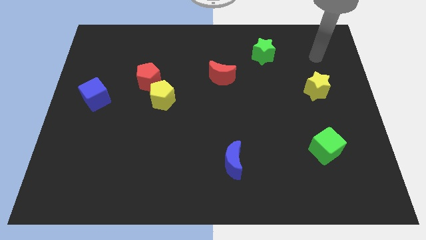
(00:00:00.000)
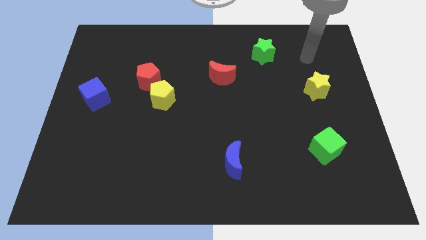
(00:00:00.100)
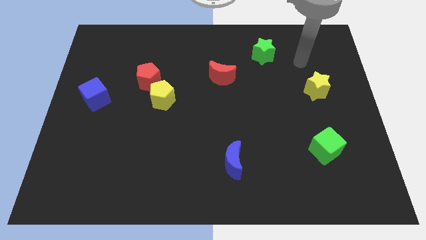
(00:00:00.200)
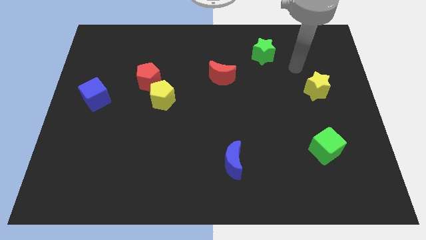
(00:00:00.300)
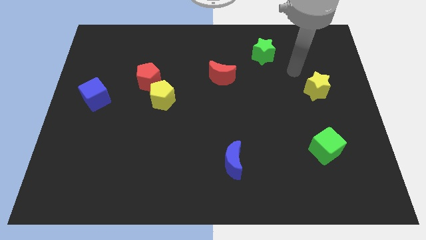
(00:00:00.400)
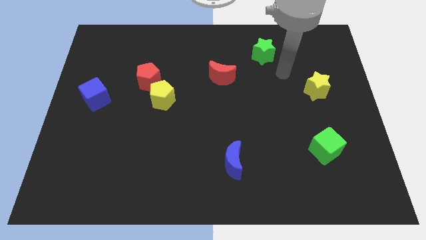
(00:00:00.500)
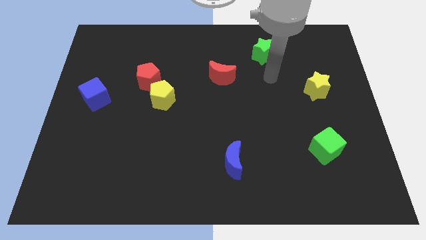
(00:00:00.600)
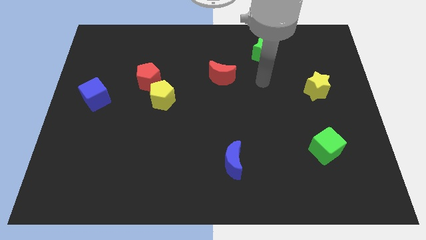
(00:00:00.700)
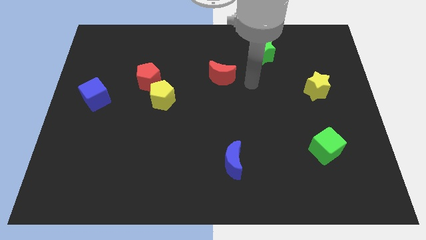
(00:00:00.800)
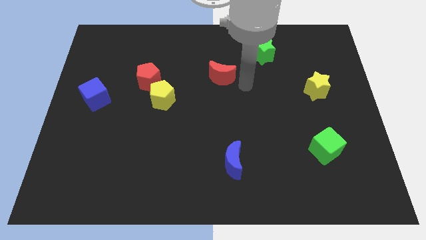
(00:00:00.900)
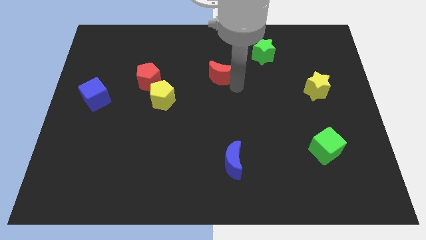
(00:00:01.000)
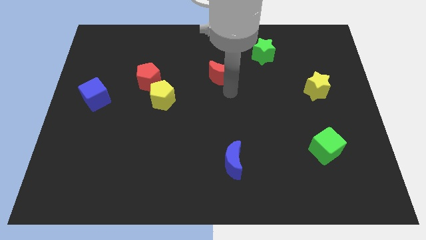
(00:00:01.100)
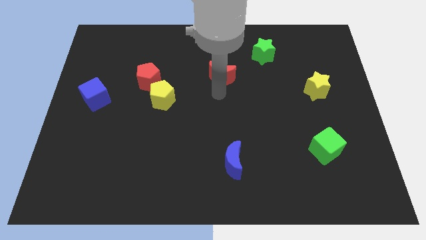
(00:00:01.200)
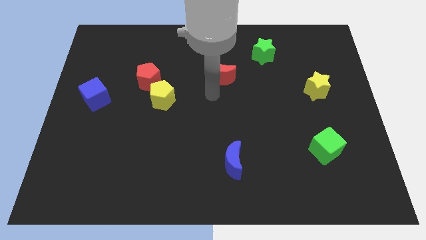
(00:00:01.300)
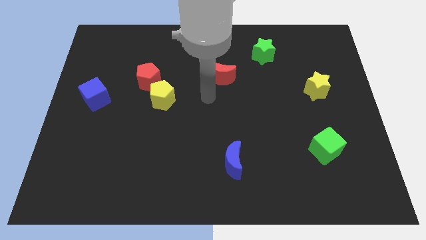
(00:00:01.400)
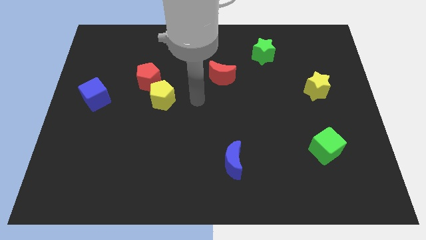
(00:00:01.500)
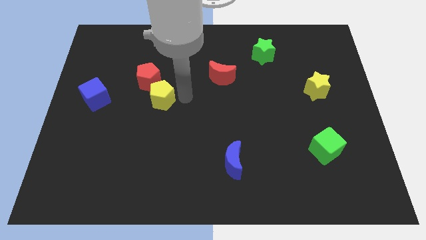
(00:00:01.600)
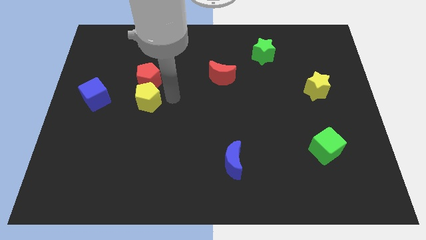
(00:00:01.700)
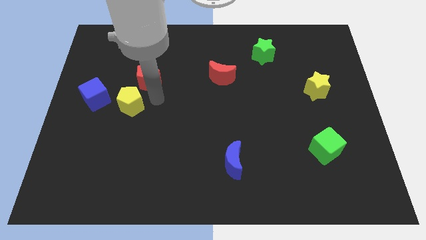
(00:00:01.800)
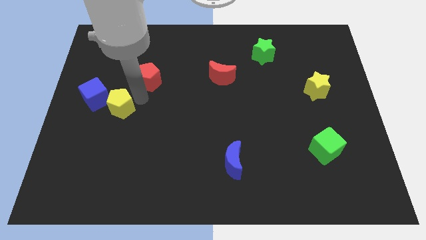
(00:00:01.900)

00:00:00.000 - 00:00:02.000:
separate the red pentagon from the yellow pentagon

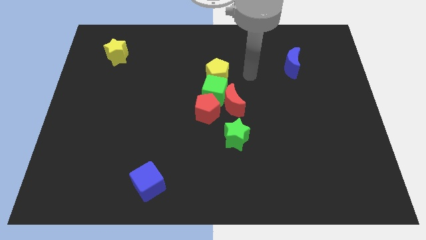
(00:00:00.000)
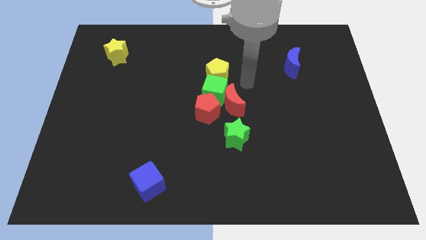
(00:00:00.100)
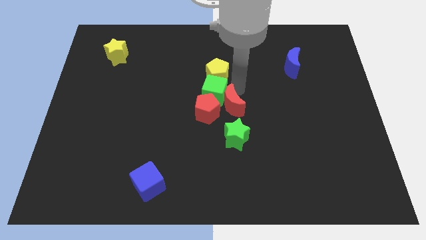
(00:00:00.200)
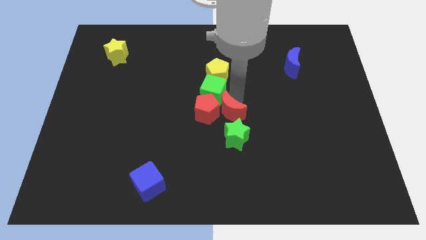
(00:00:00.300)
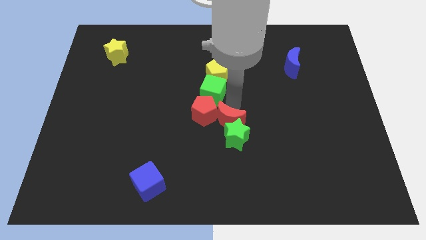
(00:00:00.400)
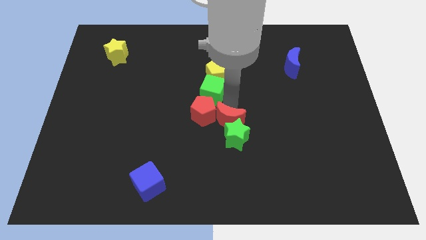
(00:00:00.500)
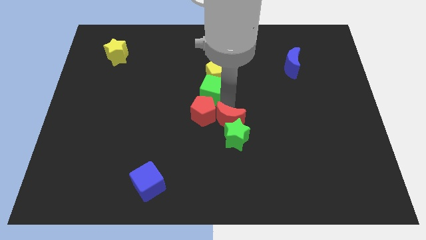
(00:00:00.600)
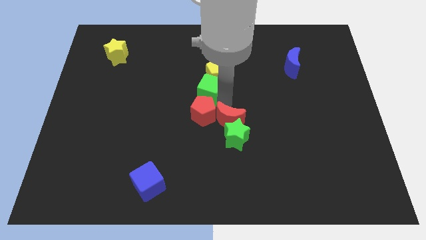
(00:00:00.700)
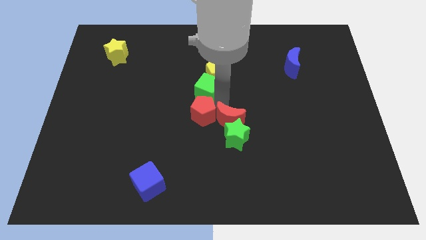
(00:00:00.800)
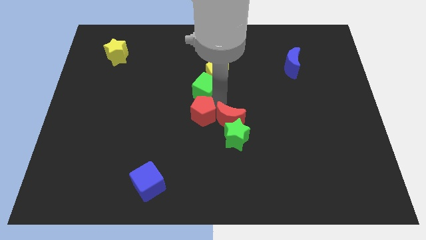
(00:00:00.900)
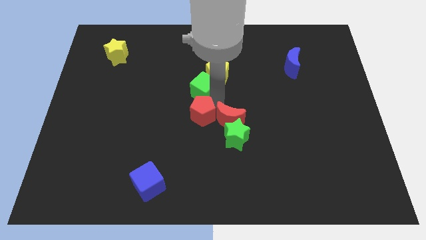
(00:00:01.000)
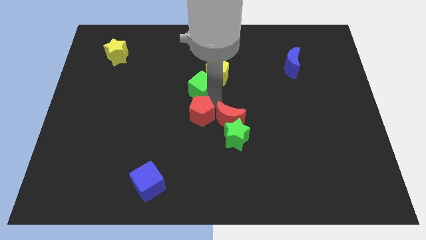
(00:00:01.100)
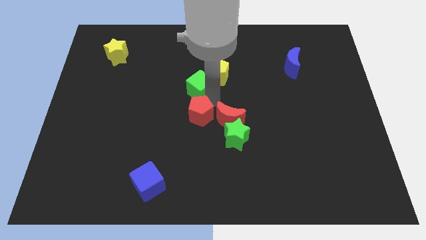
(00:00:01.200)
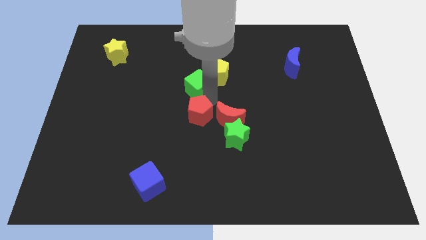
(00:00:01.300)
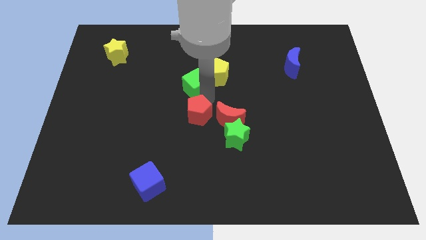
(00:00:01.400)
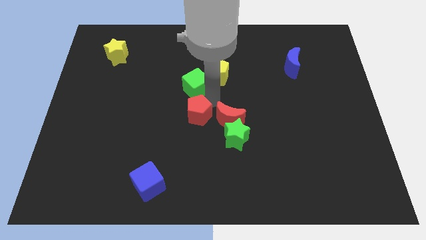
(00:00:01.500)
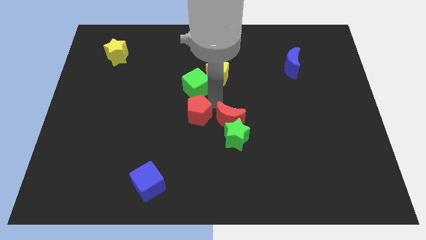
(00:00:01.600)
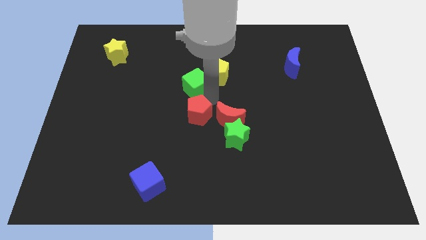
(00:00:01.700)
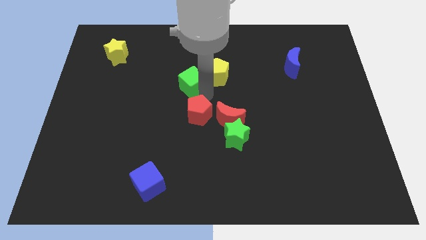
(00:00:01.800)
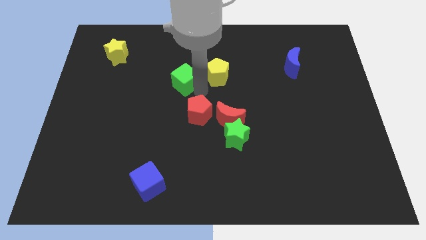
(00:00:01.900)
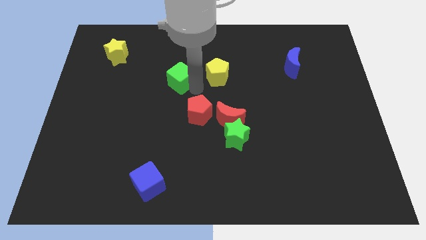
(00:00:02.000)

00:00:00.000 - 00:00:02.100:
move the green cube away from the red moon, red pentagon, and yellow pentagon

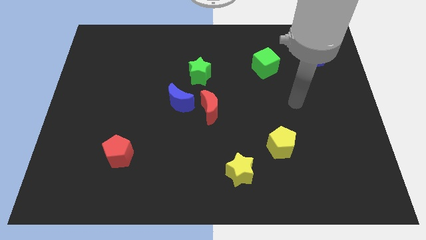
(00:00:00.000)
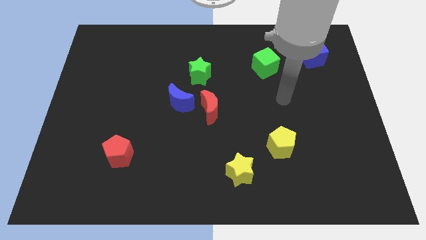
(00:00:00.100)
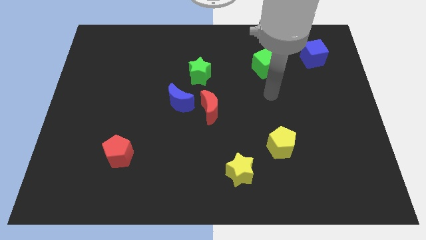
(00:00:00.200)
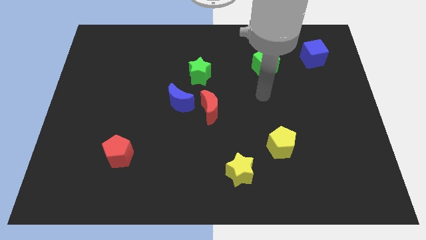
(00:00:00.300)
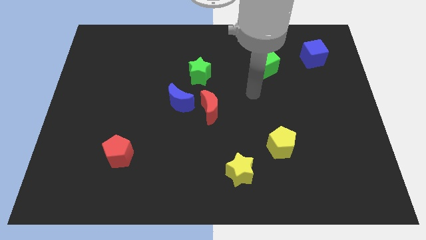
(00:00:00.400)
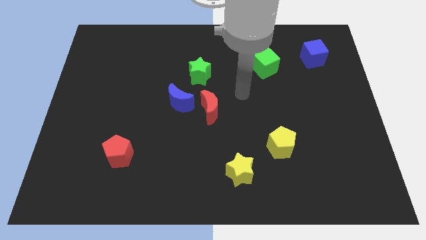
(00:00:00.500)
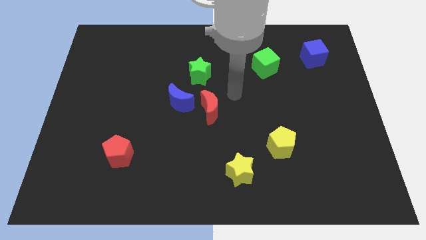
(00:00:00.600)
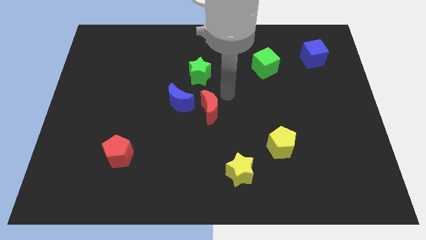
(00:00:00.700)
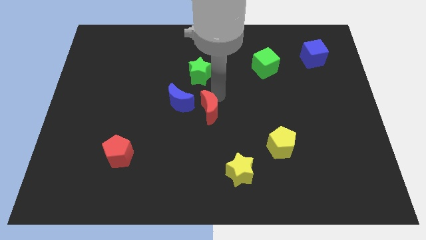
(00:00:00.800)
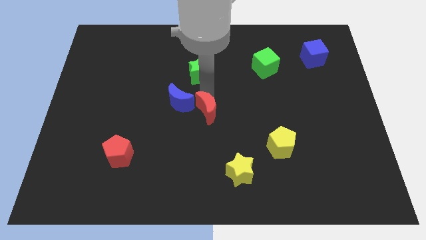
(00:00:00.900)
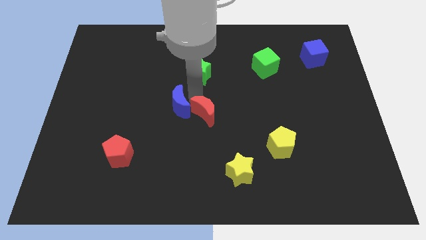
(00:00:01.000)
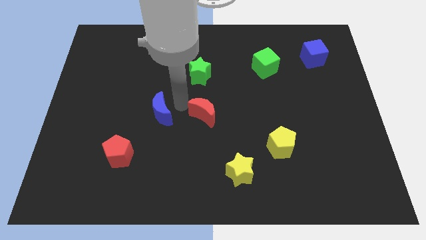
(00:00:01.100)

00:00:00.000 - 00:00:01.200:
separate the red moon from the blue moon

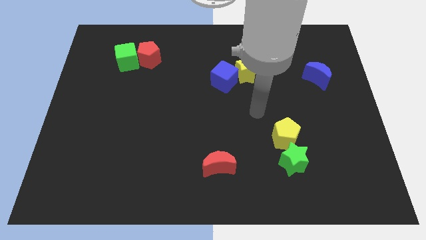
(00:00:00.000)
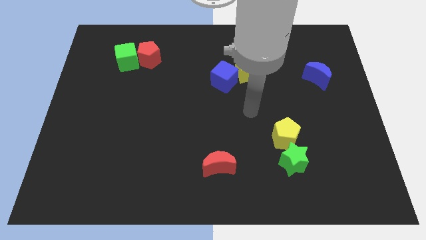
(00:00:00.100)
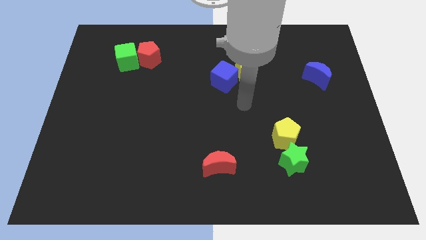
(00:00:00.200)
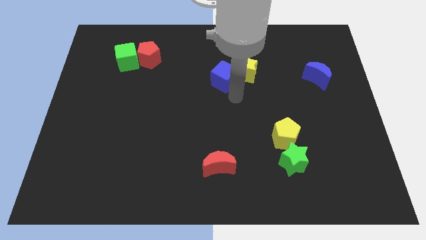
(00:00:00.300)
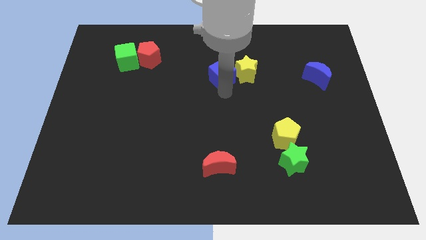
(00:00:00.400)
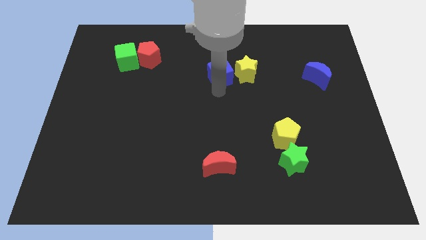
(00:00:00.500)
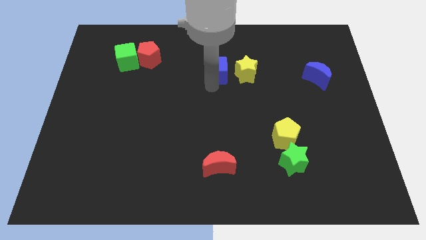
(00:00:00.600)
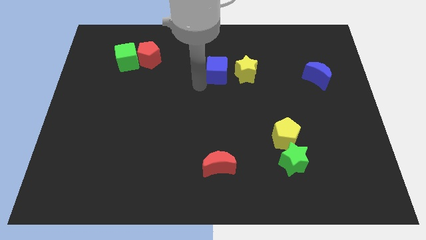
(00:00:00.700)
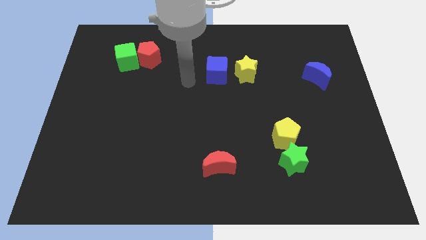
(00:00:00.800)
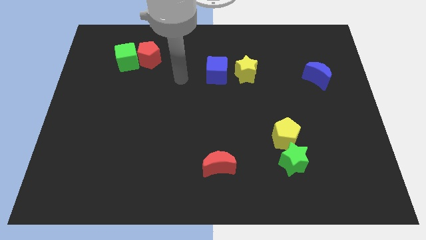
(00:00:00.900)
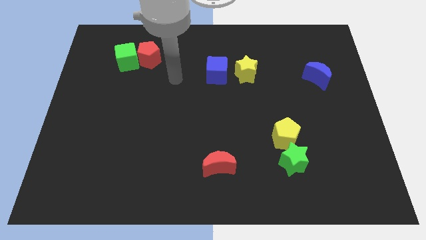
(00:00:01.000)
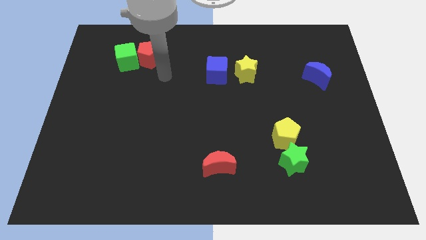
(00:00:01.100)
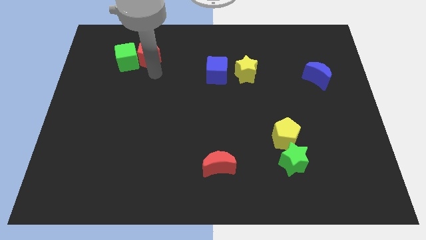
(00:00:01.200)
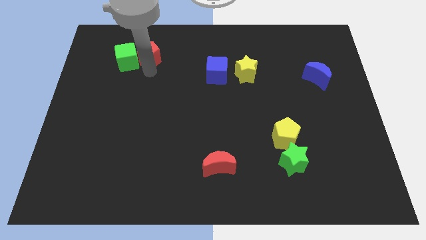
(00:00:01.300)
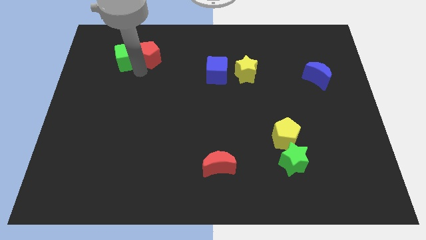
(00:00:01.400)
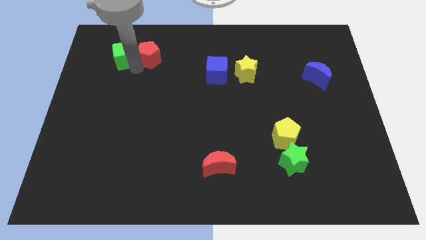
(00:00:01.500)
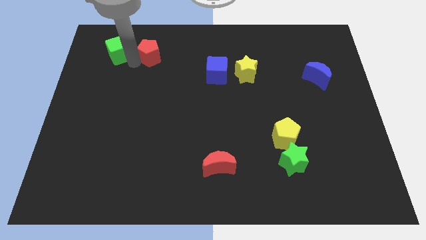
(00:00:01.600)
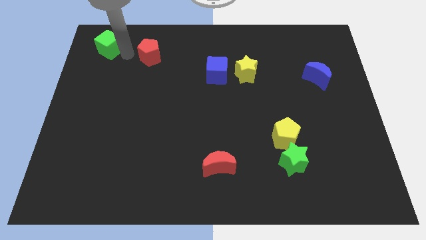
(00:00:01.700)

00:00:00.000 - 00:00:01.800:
pull the red pentagon apart from the green cube

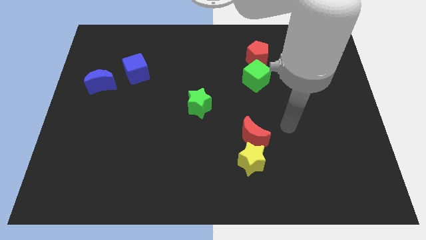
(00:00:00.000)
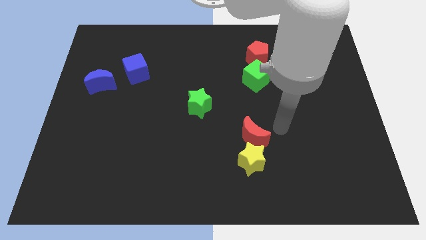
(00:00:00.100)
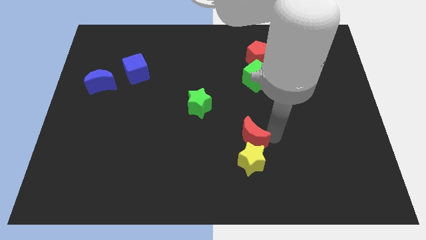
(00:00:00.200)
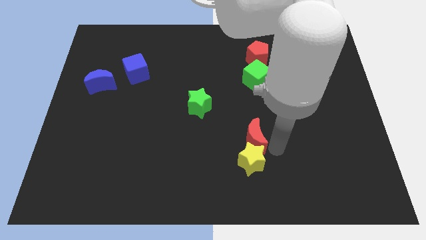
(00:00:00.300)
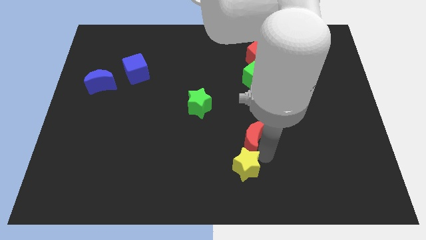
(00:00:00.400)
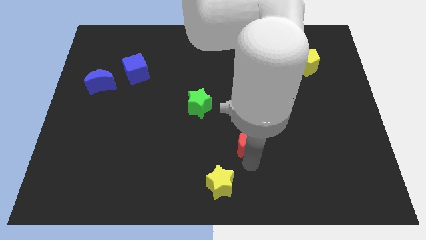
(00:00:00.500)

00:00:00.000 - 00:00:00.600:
separate the red moon from the yellow star

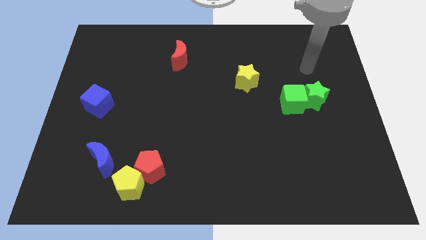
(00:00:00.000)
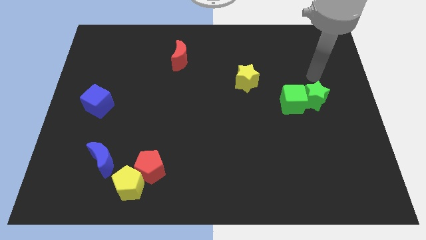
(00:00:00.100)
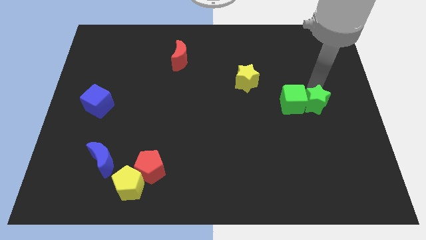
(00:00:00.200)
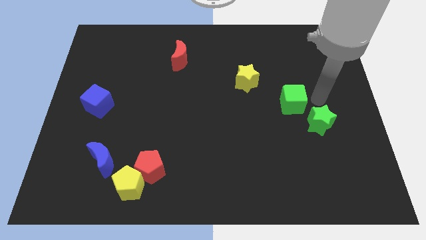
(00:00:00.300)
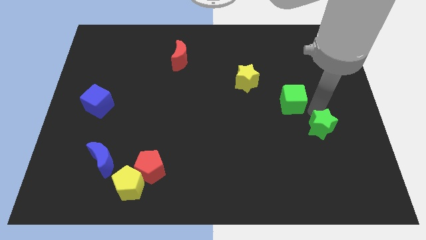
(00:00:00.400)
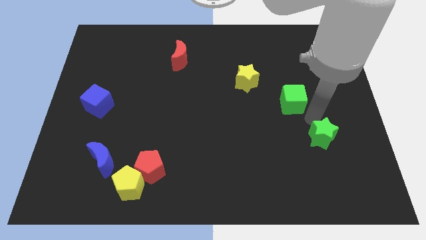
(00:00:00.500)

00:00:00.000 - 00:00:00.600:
pull the green cube apart from the green star

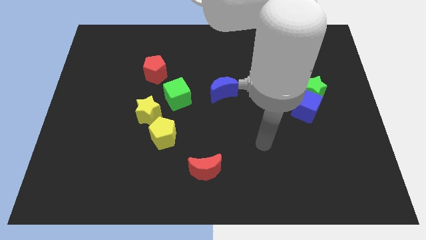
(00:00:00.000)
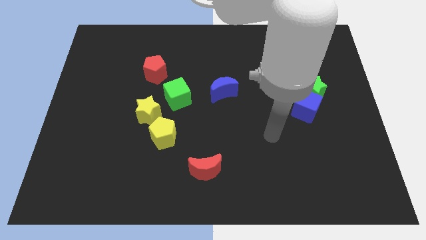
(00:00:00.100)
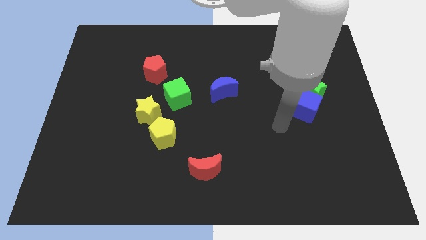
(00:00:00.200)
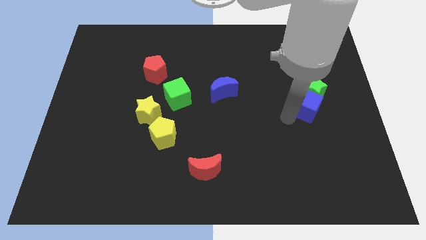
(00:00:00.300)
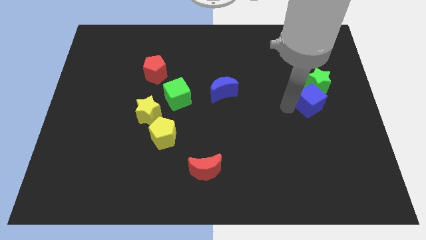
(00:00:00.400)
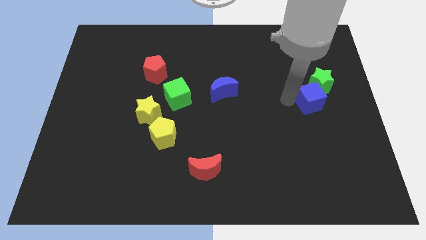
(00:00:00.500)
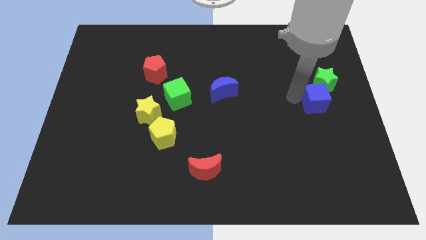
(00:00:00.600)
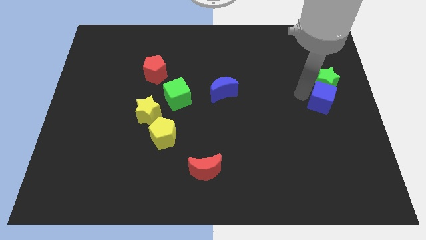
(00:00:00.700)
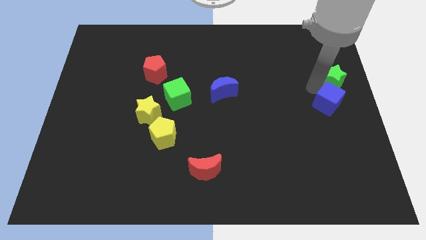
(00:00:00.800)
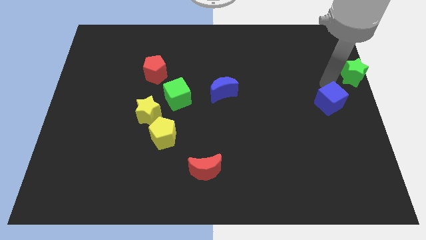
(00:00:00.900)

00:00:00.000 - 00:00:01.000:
move the blue cube away from the green star
